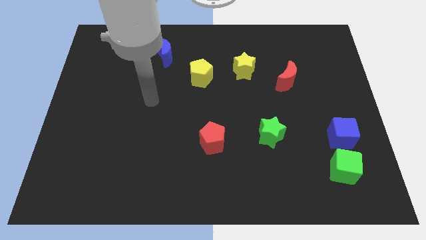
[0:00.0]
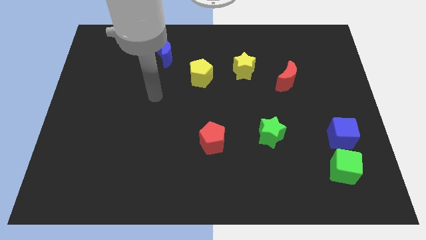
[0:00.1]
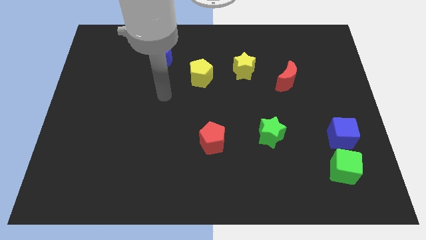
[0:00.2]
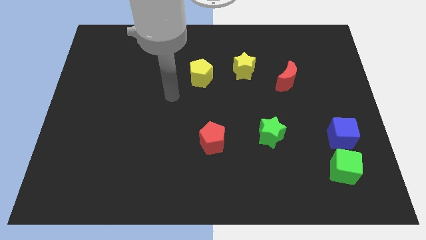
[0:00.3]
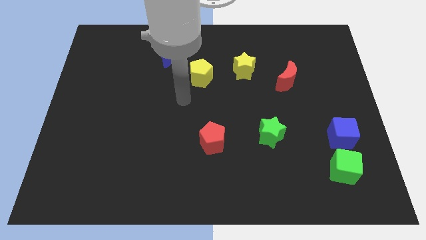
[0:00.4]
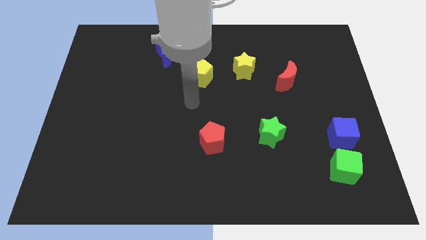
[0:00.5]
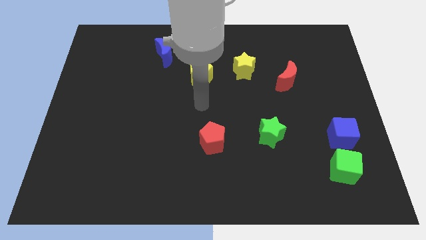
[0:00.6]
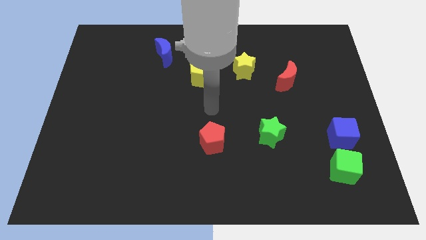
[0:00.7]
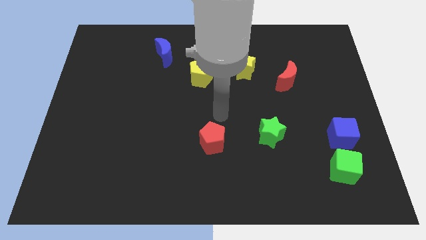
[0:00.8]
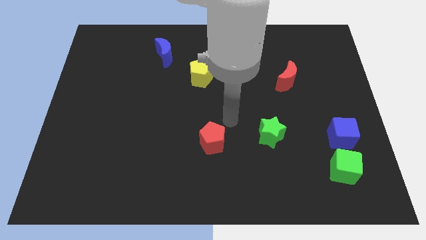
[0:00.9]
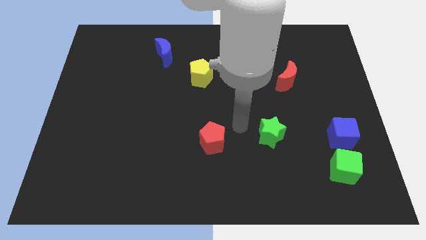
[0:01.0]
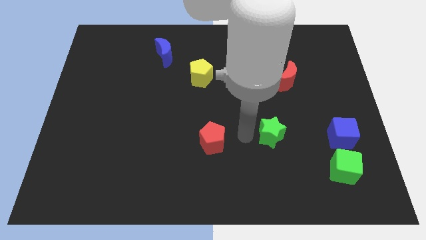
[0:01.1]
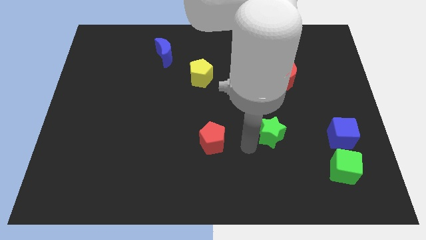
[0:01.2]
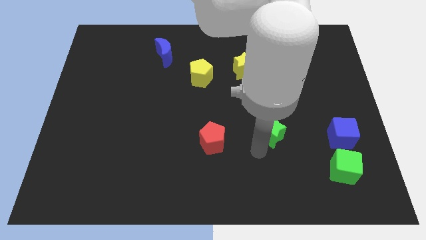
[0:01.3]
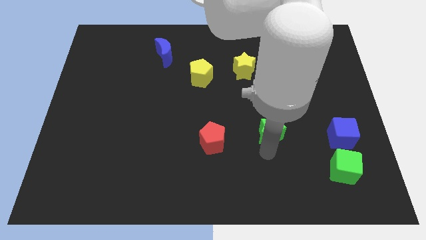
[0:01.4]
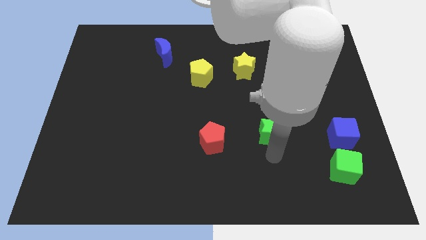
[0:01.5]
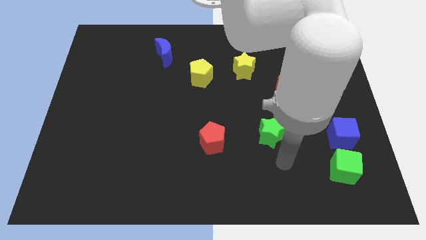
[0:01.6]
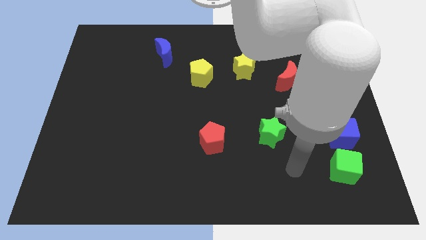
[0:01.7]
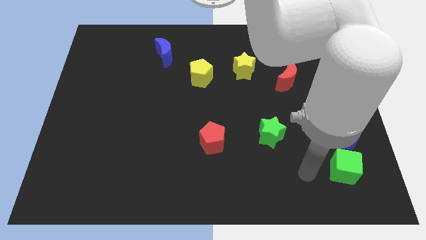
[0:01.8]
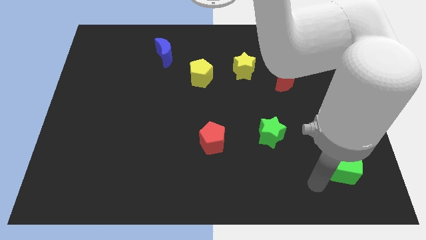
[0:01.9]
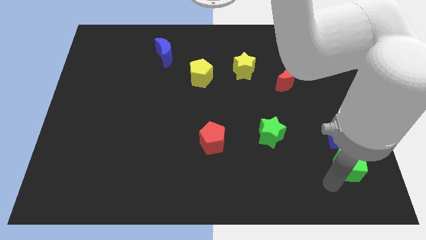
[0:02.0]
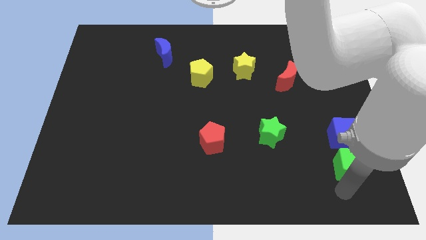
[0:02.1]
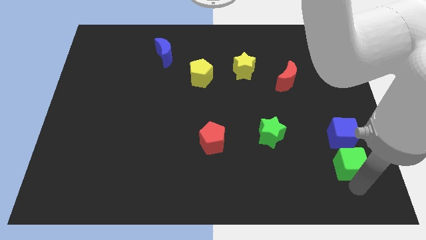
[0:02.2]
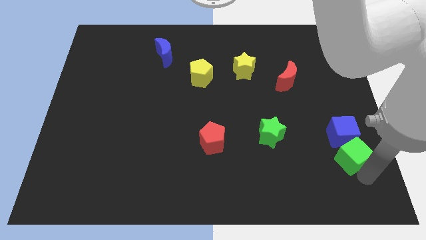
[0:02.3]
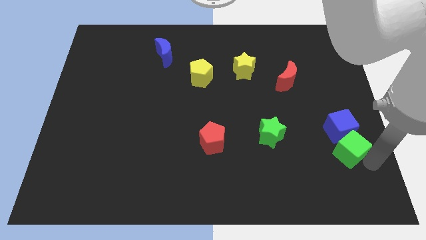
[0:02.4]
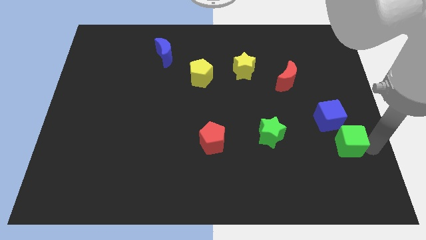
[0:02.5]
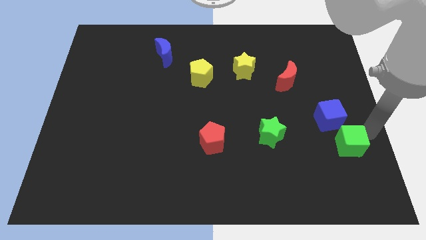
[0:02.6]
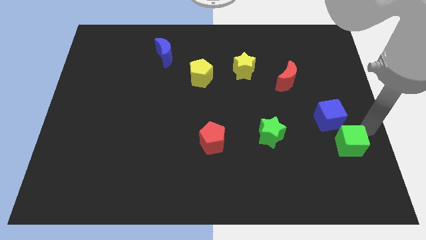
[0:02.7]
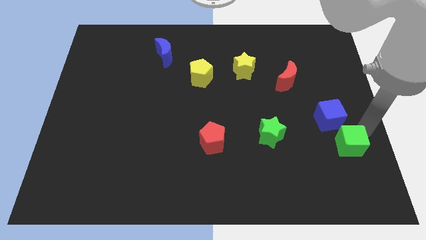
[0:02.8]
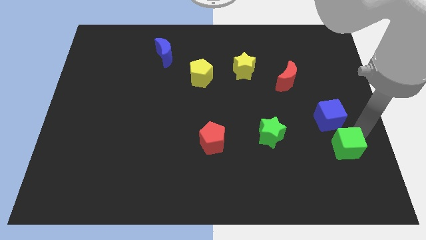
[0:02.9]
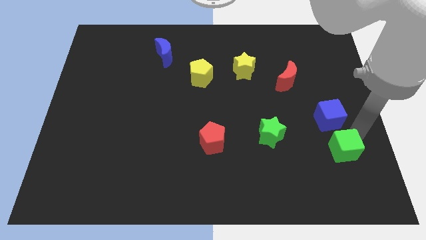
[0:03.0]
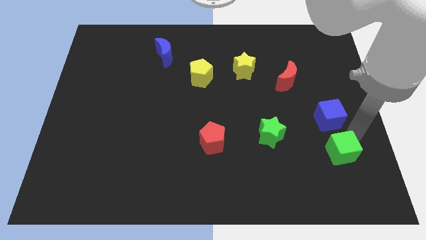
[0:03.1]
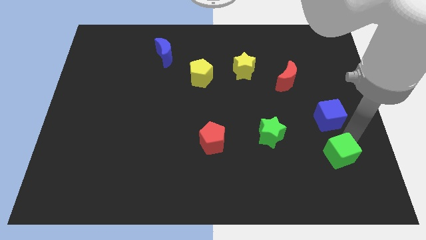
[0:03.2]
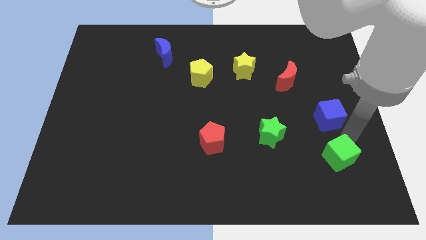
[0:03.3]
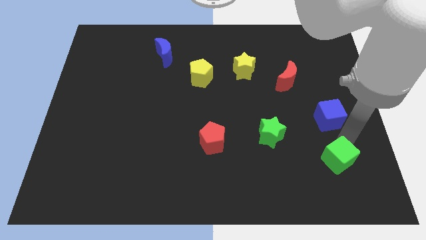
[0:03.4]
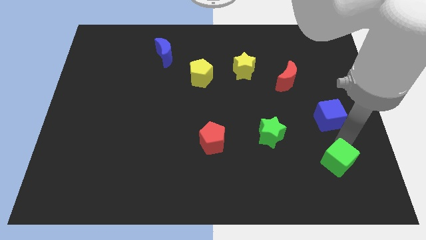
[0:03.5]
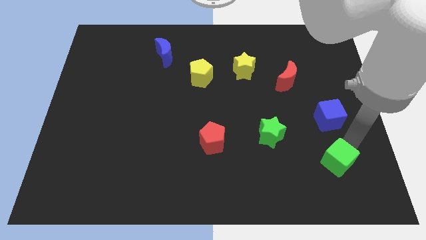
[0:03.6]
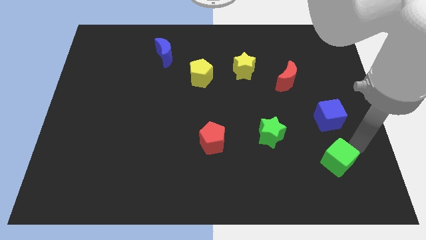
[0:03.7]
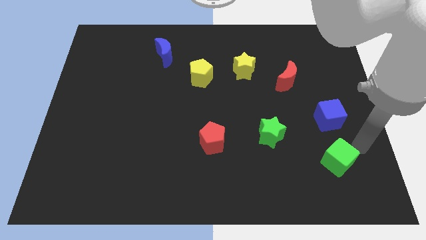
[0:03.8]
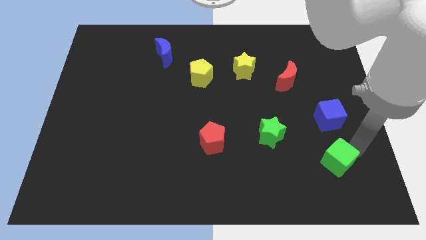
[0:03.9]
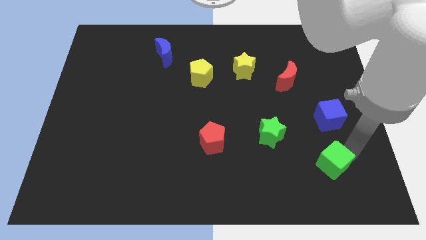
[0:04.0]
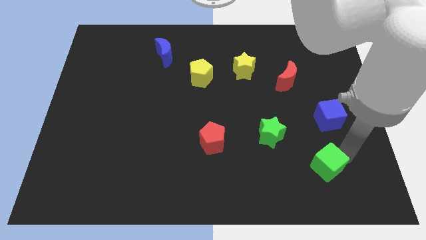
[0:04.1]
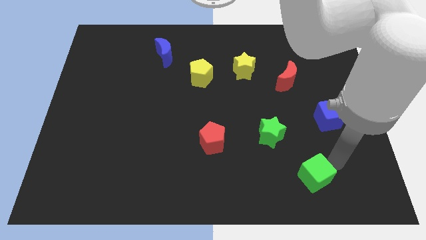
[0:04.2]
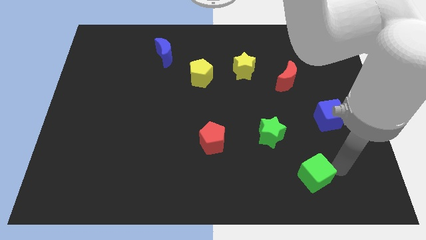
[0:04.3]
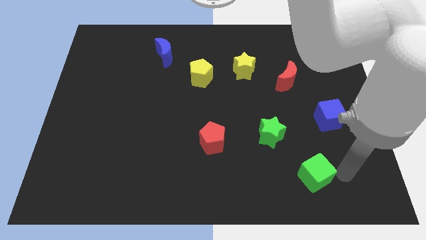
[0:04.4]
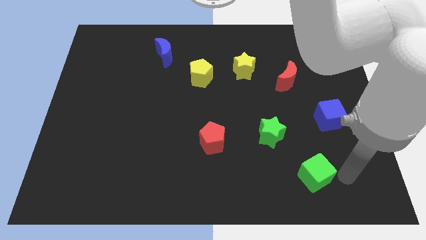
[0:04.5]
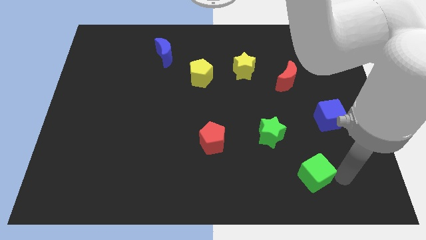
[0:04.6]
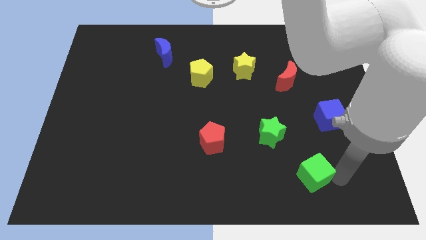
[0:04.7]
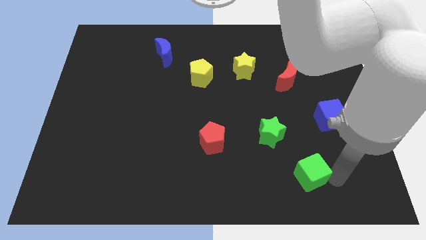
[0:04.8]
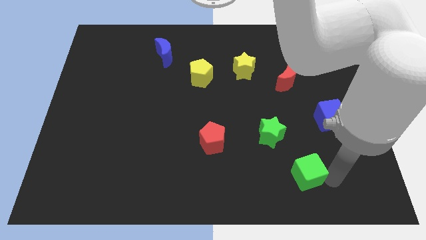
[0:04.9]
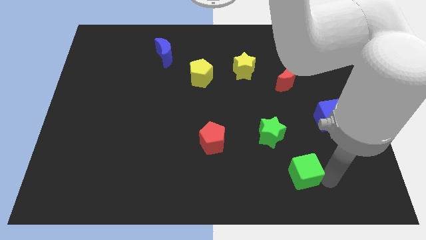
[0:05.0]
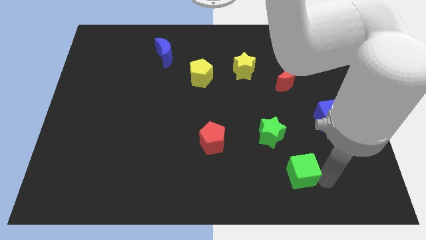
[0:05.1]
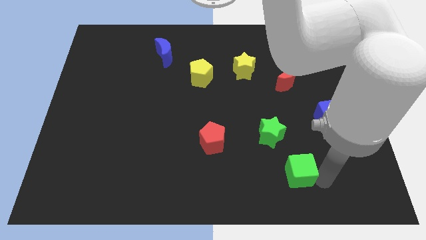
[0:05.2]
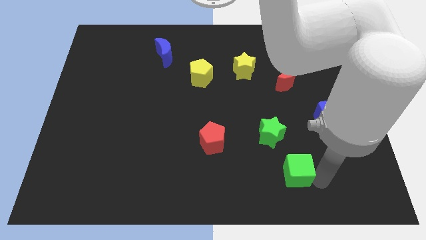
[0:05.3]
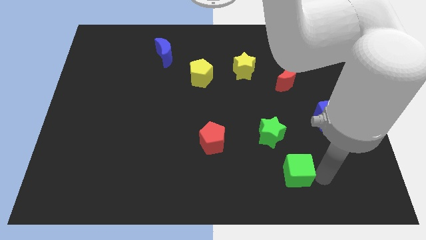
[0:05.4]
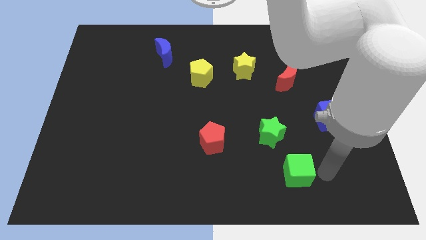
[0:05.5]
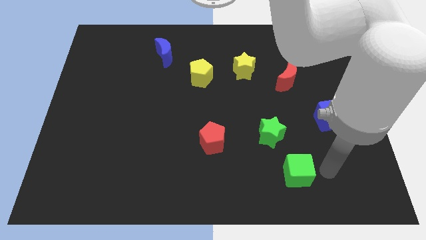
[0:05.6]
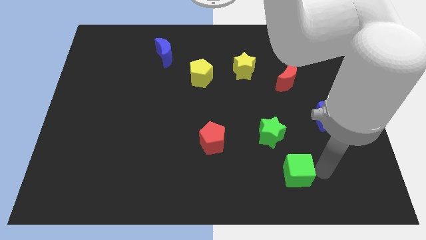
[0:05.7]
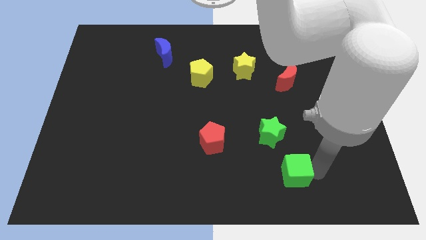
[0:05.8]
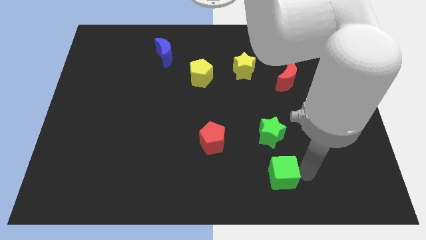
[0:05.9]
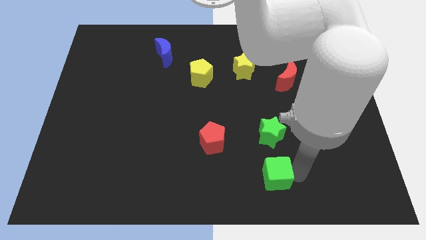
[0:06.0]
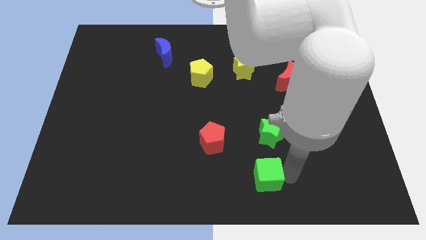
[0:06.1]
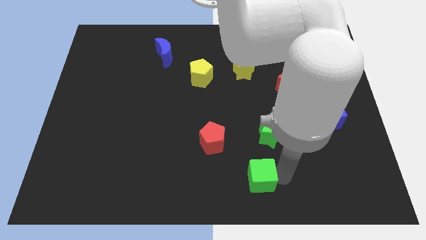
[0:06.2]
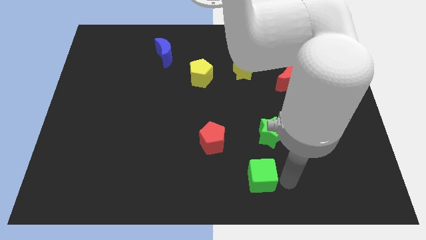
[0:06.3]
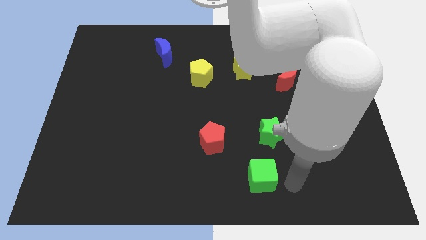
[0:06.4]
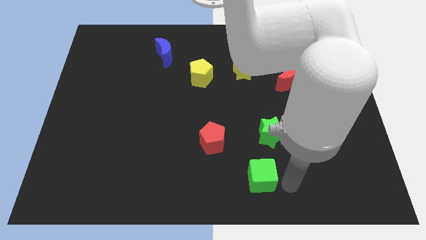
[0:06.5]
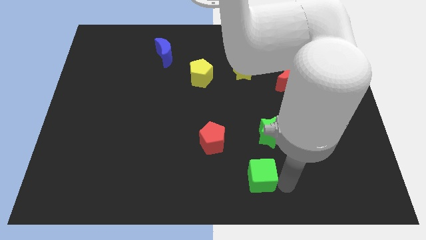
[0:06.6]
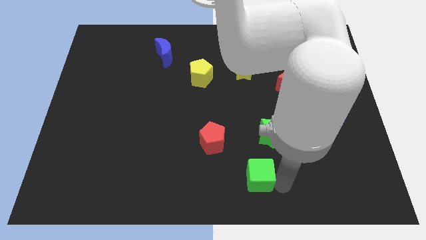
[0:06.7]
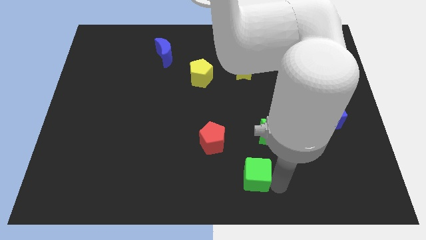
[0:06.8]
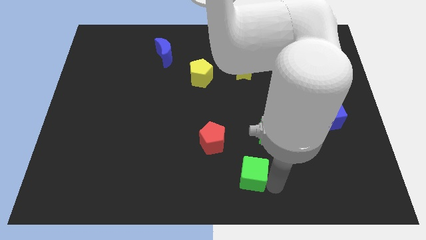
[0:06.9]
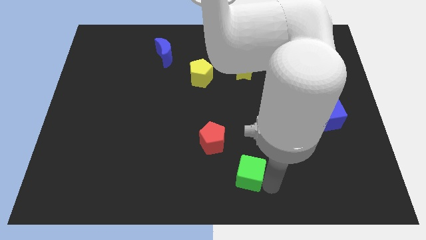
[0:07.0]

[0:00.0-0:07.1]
push the green cube left

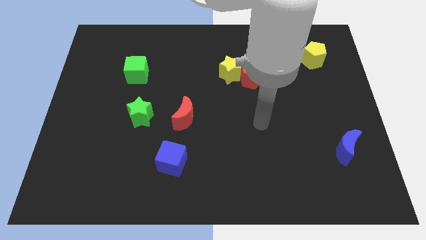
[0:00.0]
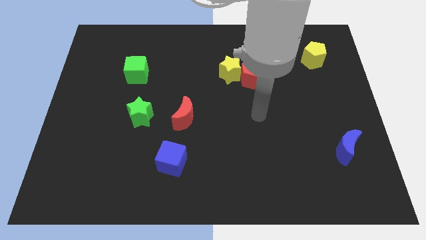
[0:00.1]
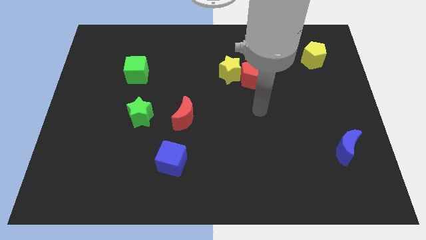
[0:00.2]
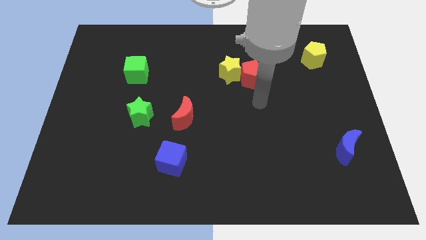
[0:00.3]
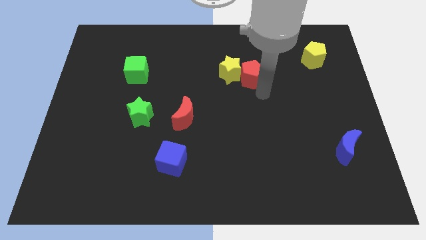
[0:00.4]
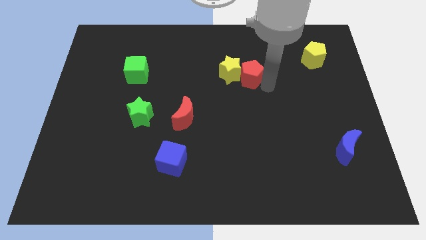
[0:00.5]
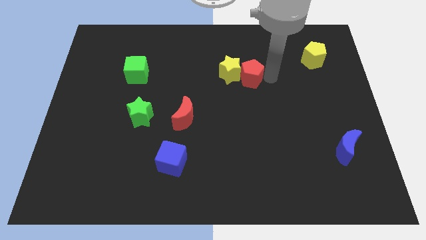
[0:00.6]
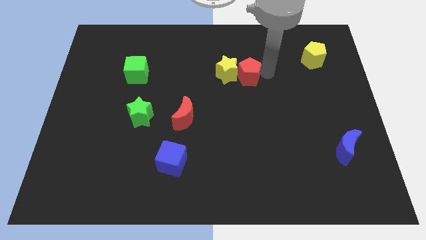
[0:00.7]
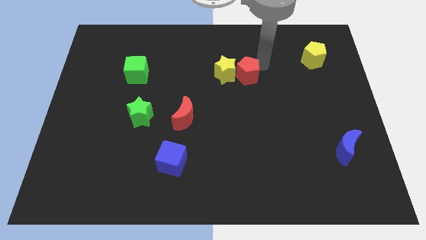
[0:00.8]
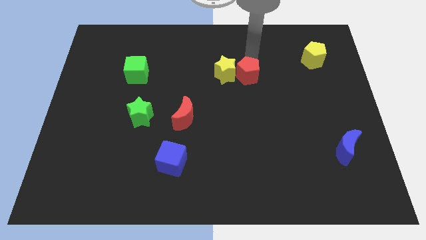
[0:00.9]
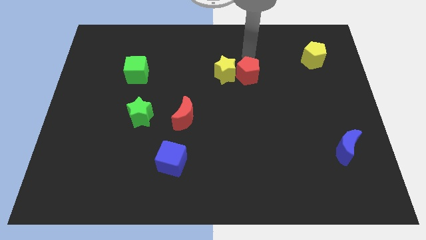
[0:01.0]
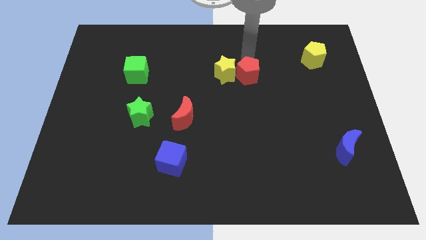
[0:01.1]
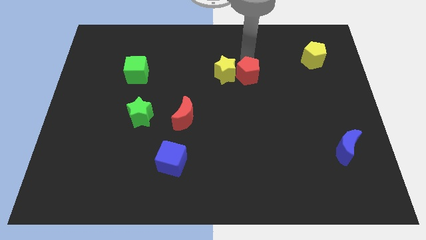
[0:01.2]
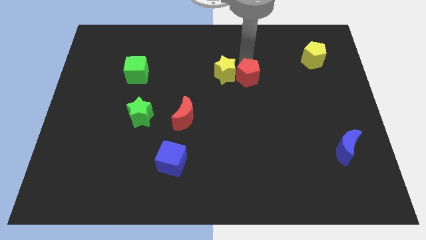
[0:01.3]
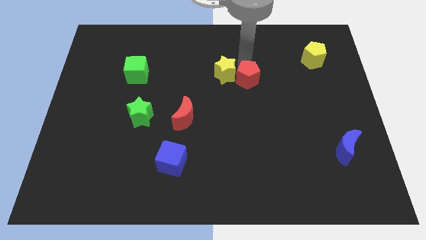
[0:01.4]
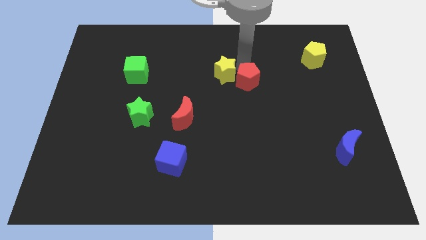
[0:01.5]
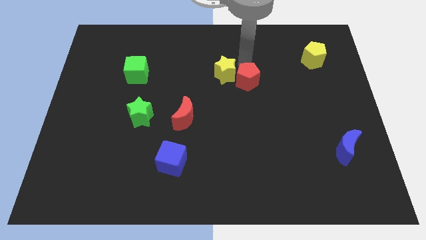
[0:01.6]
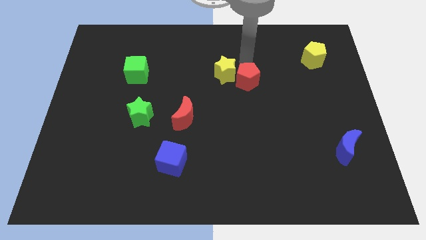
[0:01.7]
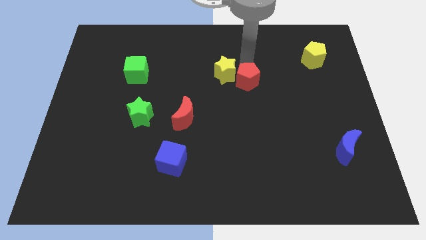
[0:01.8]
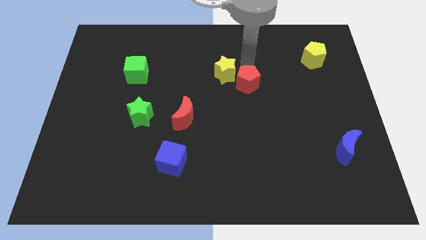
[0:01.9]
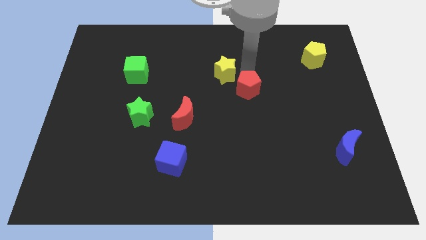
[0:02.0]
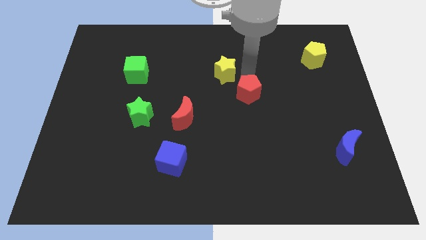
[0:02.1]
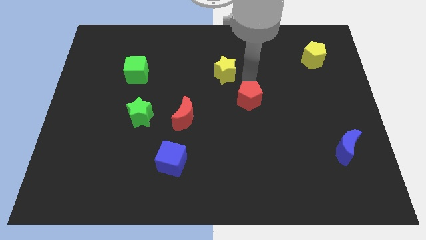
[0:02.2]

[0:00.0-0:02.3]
slightly move the red pentagon downwards
